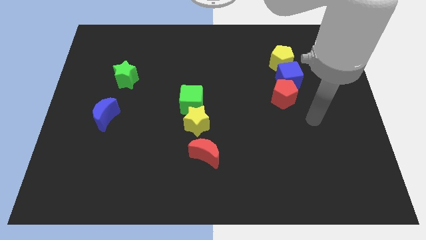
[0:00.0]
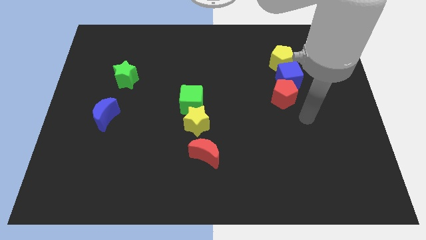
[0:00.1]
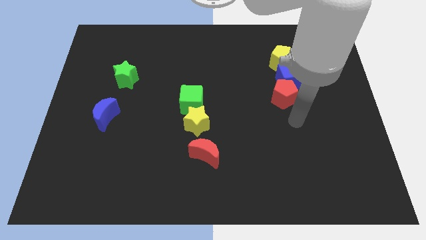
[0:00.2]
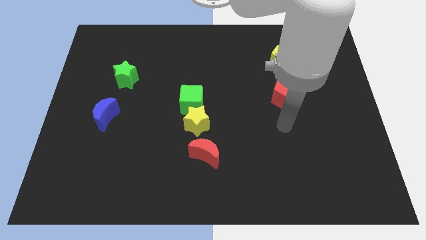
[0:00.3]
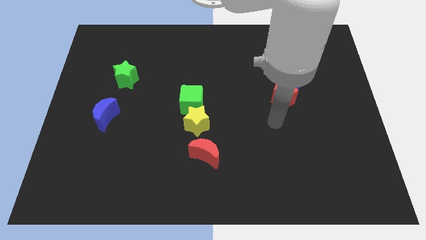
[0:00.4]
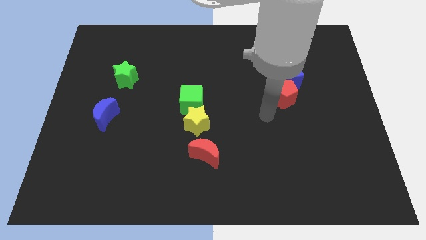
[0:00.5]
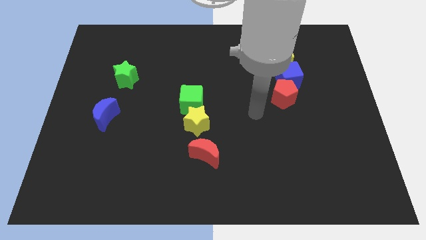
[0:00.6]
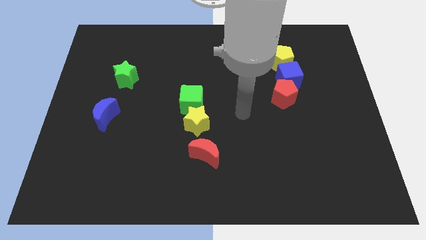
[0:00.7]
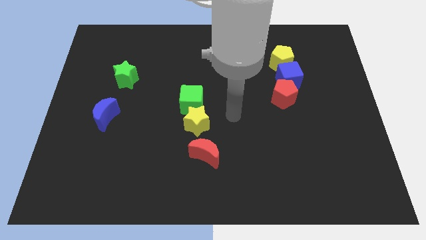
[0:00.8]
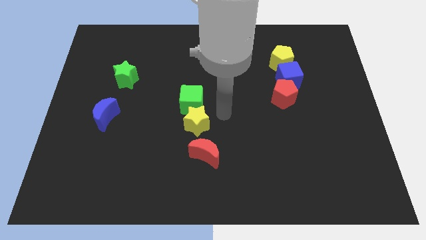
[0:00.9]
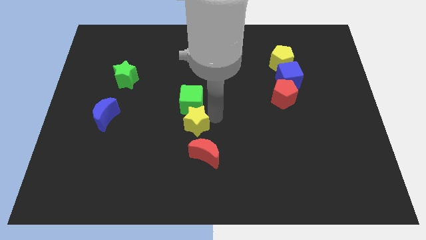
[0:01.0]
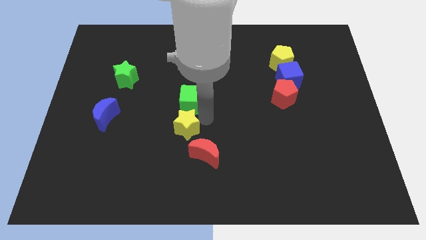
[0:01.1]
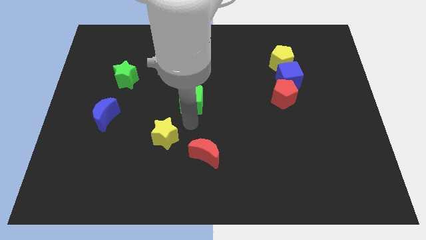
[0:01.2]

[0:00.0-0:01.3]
pull the green cube apart from the yellow star

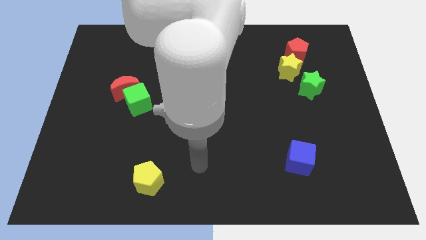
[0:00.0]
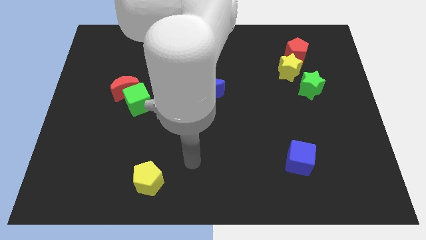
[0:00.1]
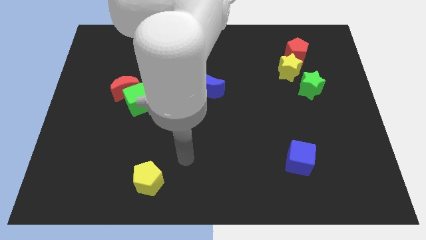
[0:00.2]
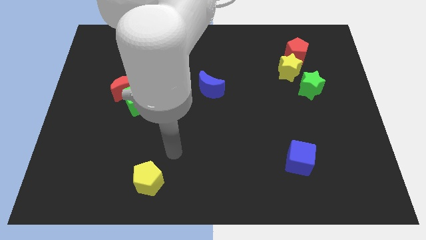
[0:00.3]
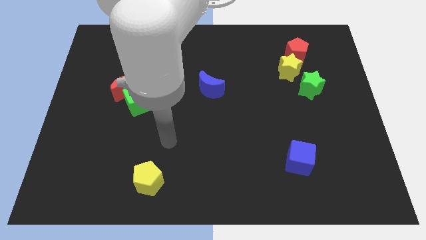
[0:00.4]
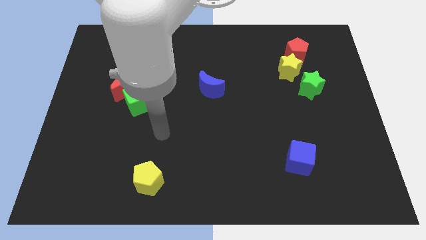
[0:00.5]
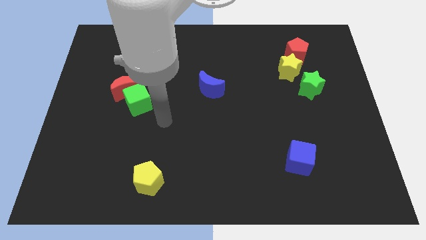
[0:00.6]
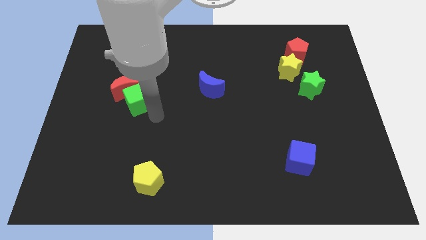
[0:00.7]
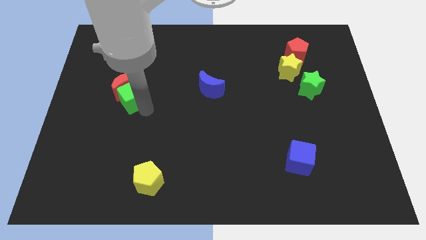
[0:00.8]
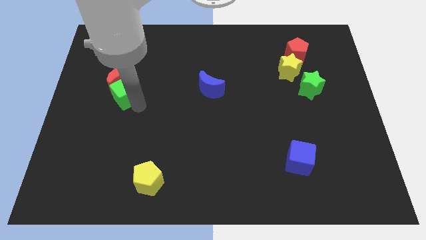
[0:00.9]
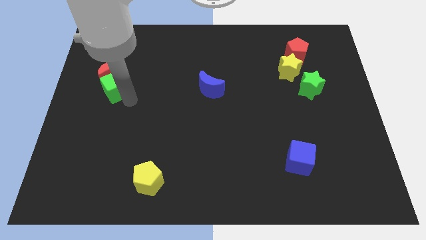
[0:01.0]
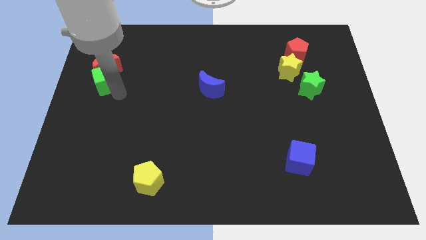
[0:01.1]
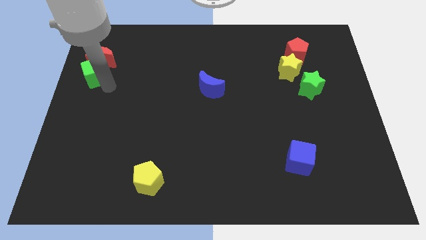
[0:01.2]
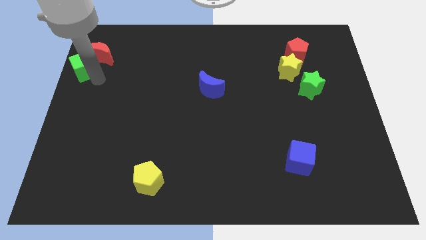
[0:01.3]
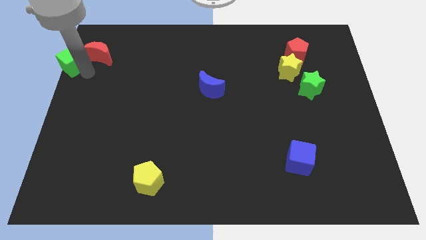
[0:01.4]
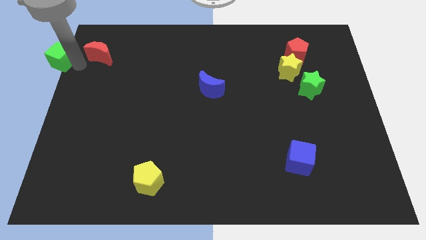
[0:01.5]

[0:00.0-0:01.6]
separate the red moon from the green cube

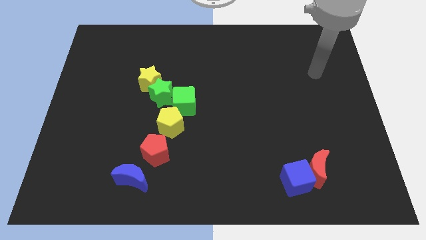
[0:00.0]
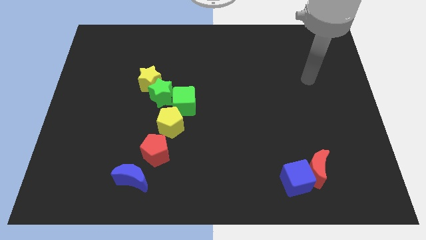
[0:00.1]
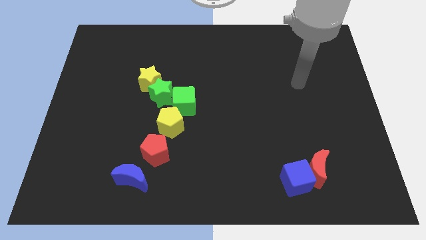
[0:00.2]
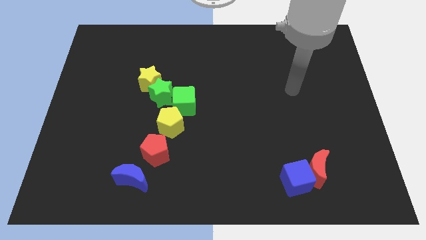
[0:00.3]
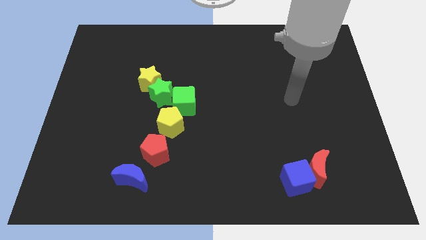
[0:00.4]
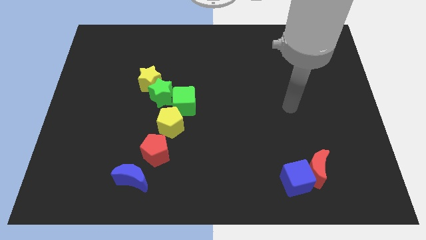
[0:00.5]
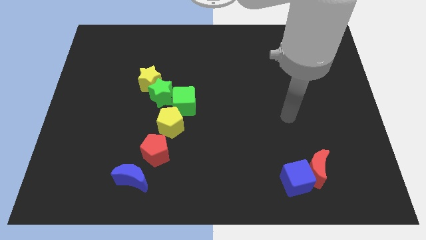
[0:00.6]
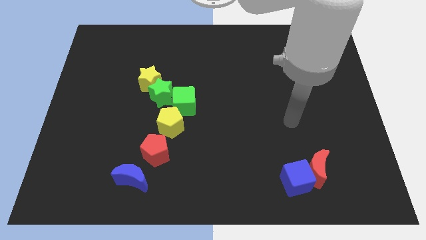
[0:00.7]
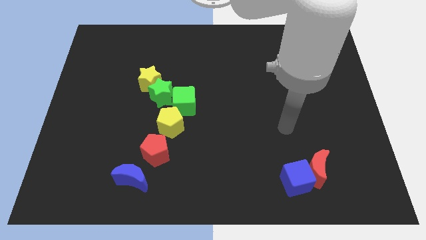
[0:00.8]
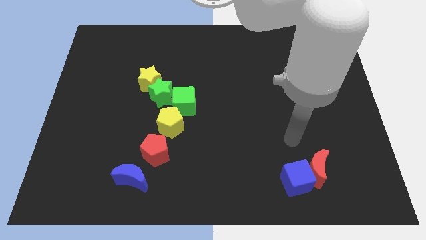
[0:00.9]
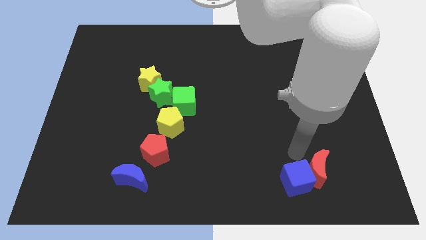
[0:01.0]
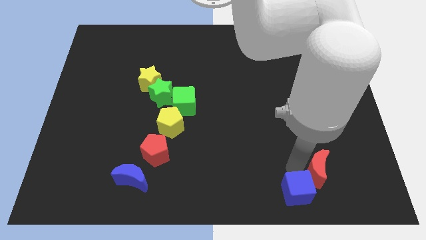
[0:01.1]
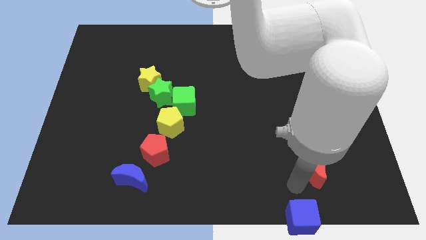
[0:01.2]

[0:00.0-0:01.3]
separate the red moon from the blue cube

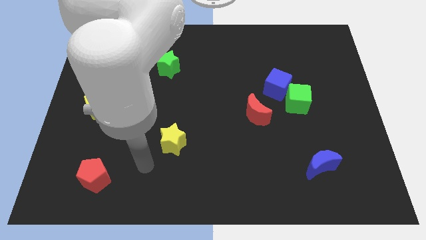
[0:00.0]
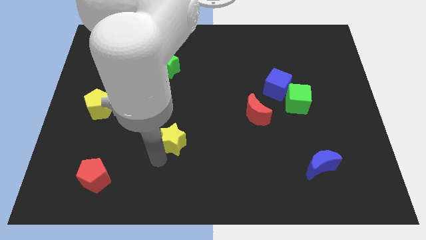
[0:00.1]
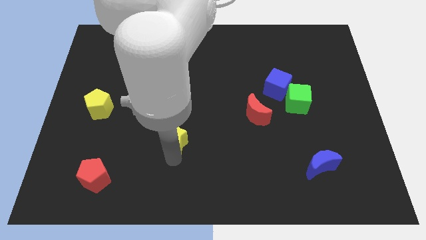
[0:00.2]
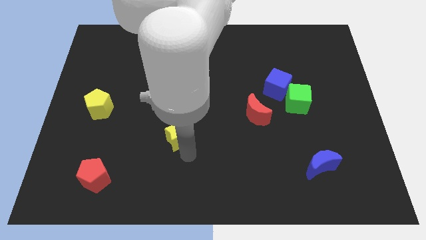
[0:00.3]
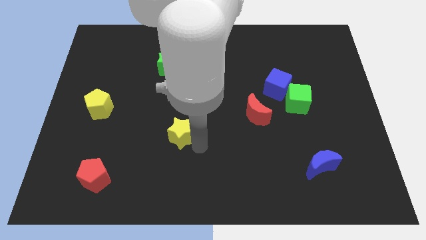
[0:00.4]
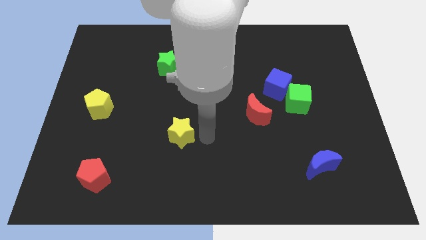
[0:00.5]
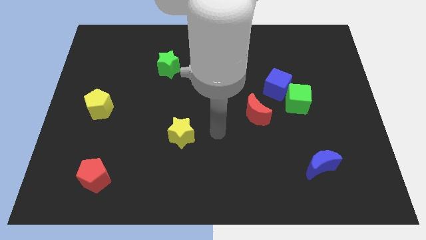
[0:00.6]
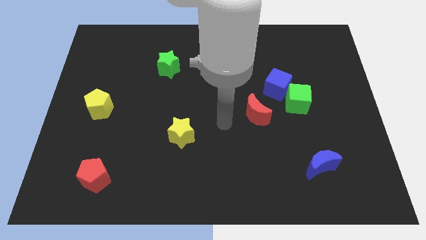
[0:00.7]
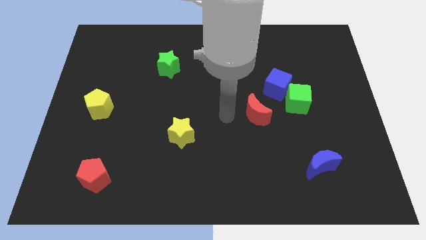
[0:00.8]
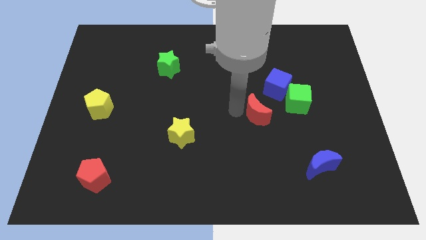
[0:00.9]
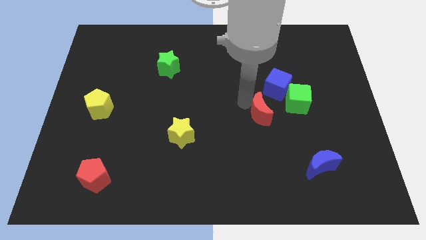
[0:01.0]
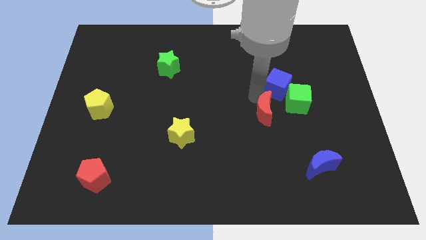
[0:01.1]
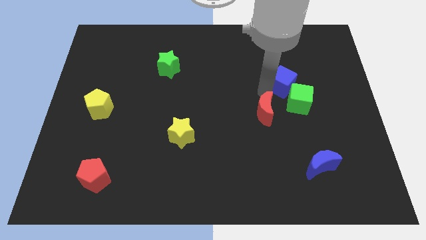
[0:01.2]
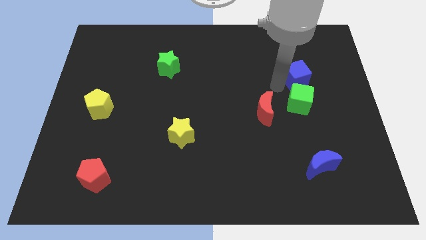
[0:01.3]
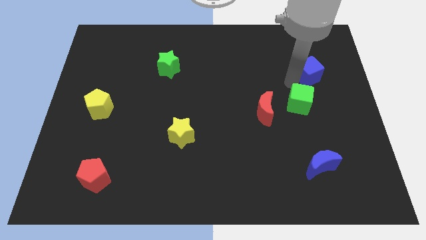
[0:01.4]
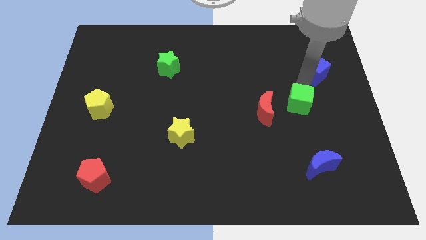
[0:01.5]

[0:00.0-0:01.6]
separate the green cube from the blue cube

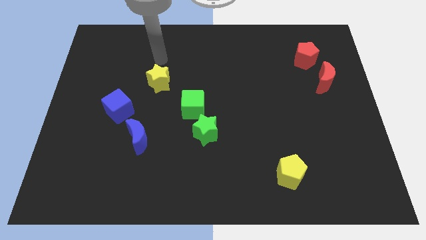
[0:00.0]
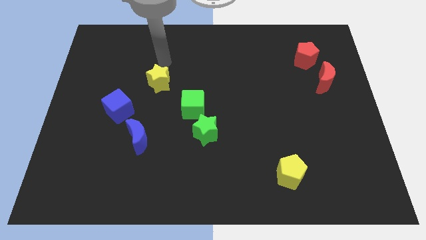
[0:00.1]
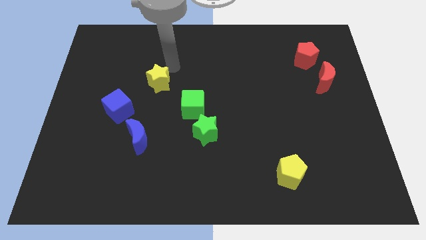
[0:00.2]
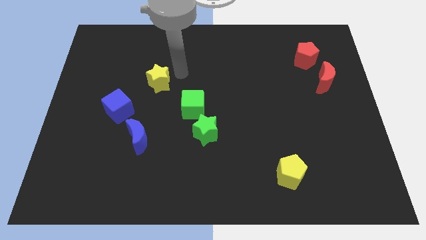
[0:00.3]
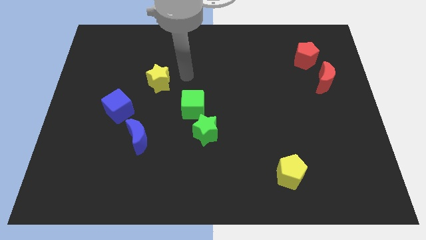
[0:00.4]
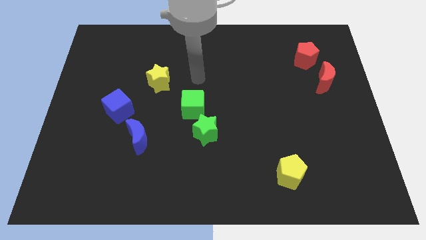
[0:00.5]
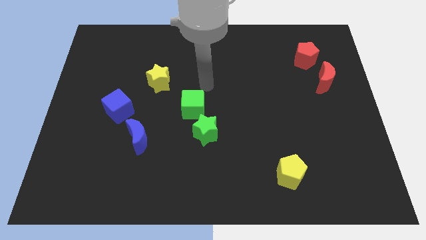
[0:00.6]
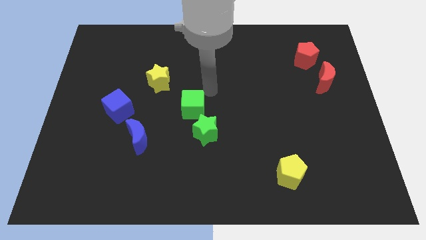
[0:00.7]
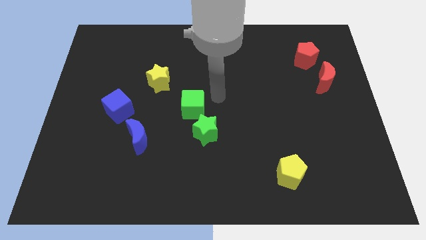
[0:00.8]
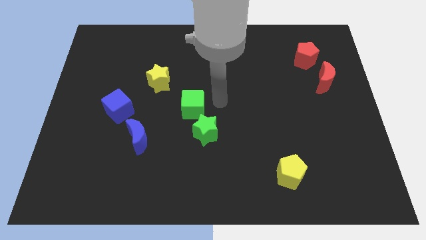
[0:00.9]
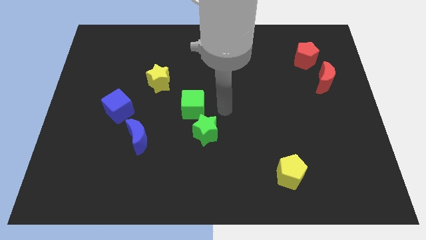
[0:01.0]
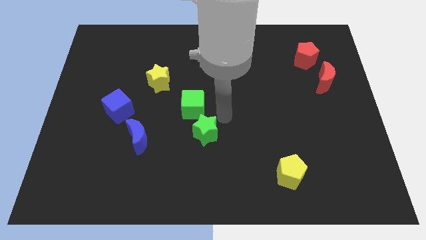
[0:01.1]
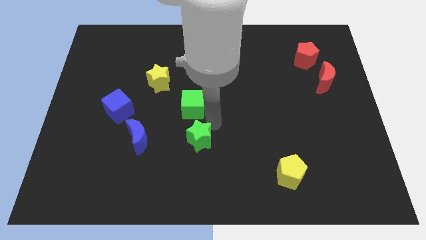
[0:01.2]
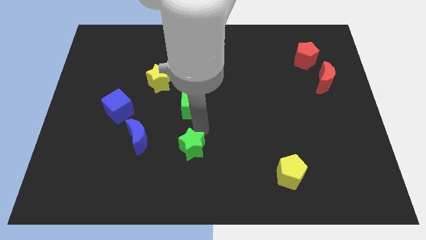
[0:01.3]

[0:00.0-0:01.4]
pull the green cube apart from the green star

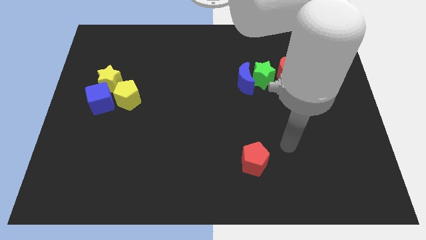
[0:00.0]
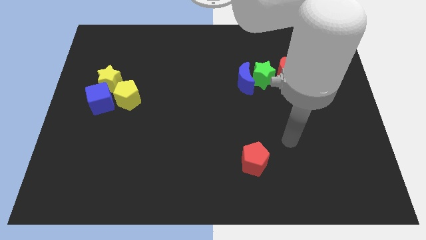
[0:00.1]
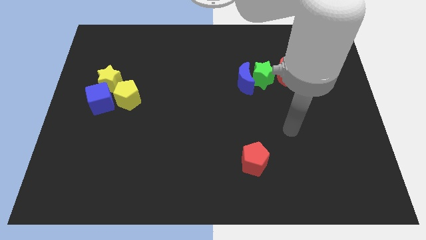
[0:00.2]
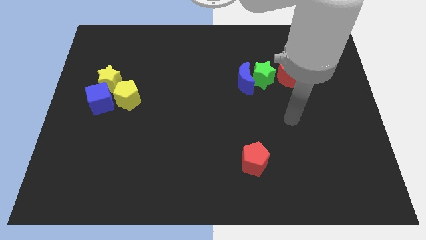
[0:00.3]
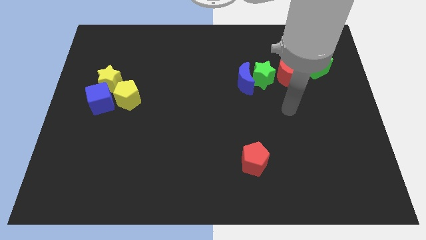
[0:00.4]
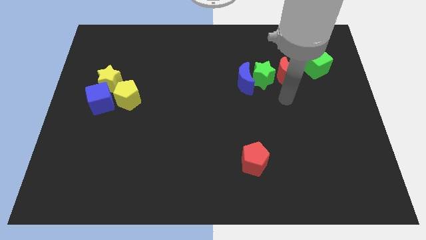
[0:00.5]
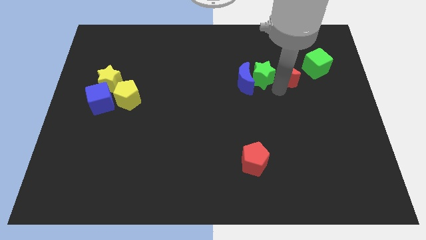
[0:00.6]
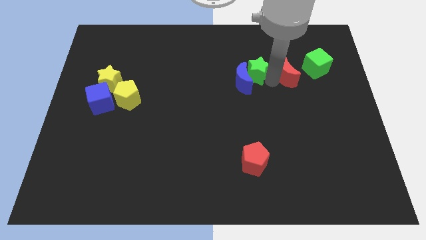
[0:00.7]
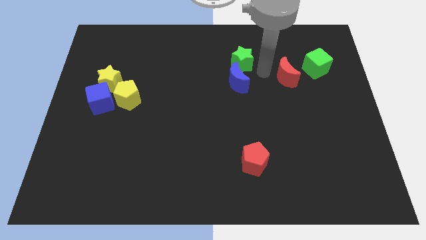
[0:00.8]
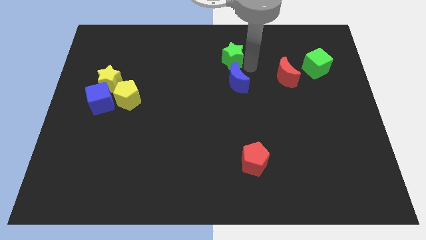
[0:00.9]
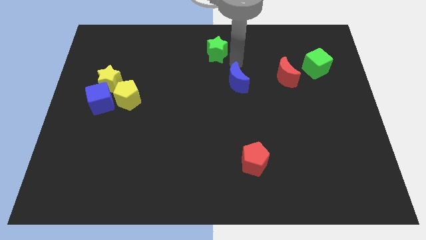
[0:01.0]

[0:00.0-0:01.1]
separate the blue moon from the green star

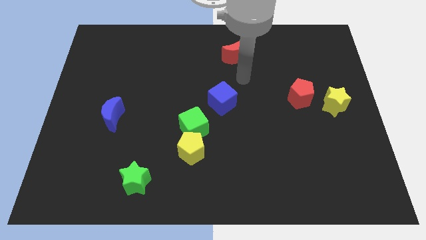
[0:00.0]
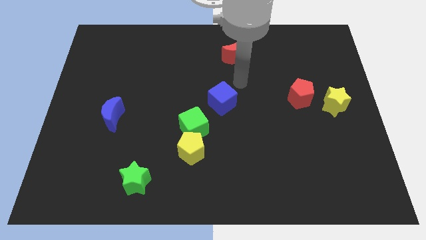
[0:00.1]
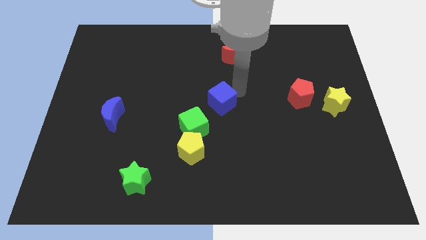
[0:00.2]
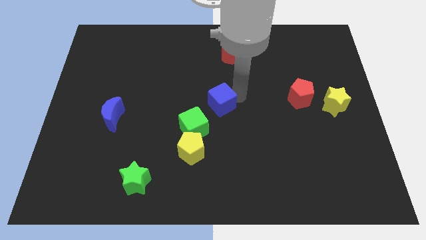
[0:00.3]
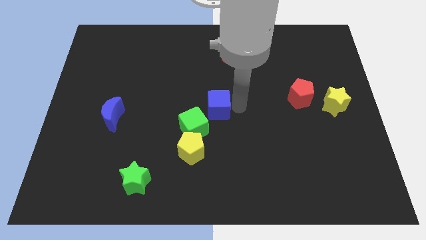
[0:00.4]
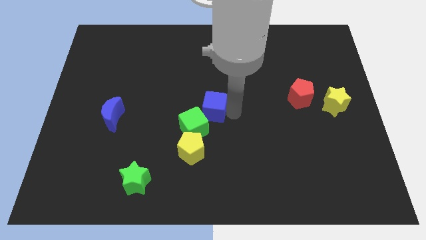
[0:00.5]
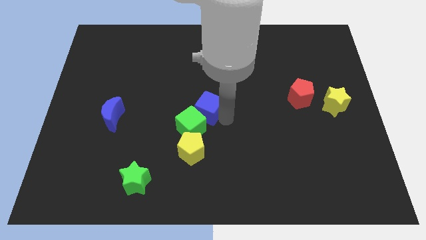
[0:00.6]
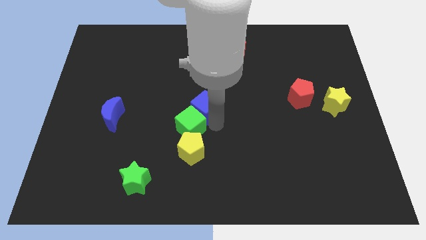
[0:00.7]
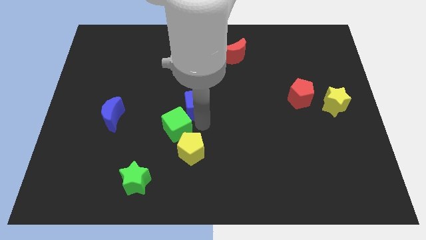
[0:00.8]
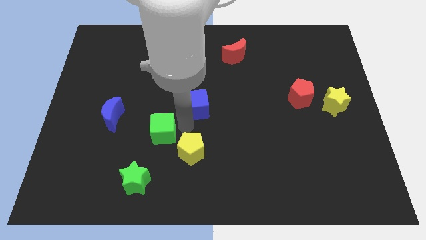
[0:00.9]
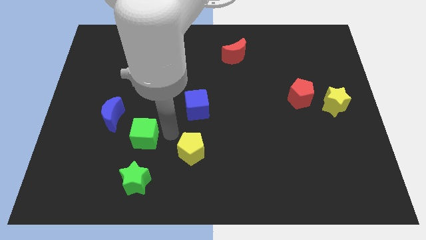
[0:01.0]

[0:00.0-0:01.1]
separate the yellow pentagon from the green cube
